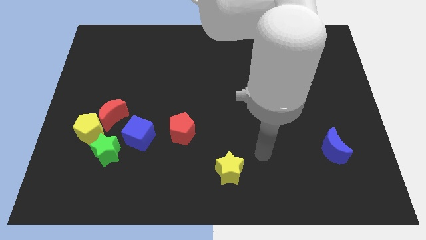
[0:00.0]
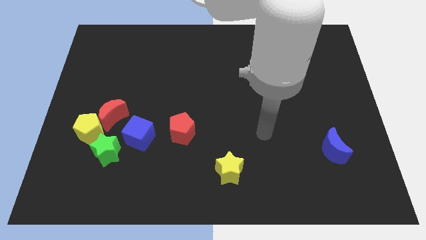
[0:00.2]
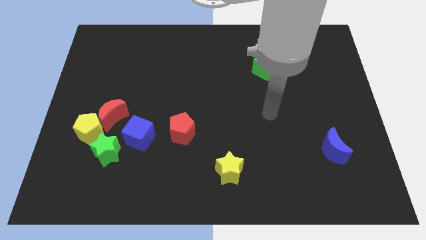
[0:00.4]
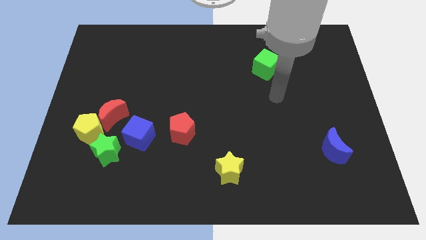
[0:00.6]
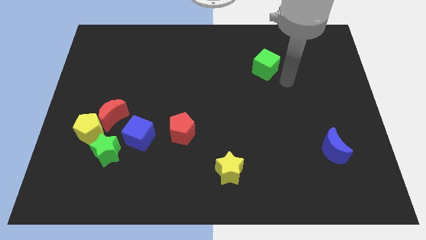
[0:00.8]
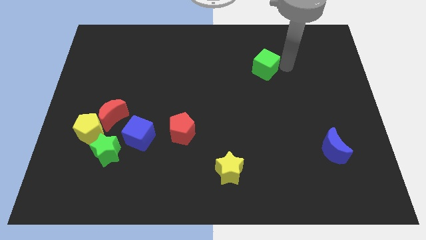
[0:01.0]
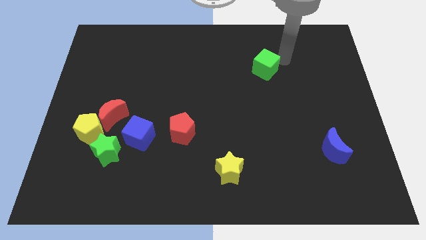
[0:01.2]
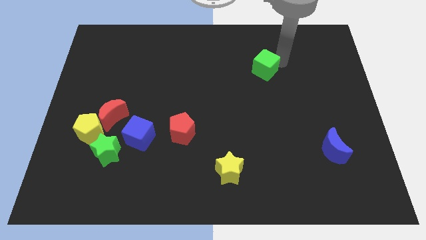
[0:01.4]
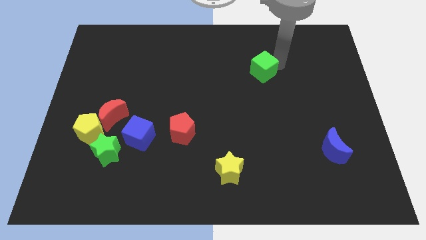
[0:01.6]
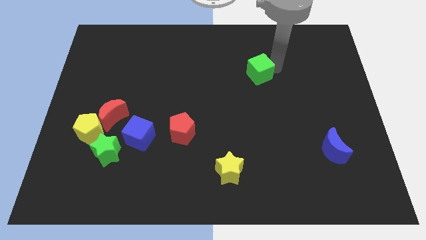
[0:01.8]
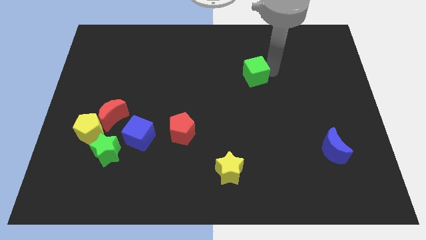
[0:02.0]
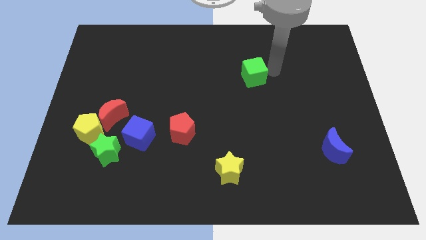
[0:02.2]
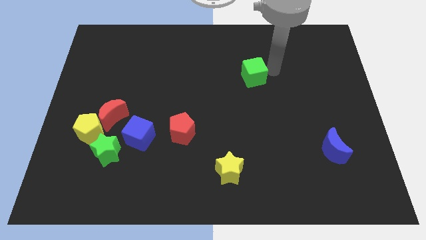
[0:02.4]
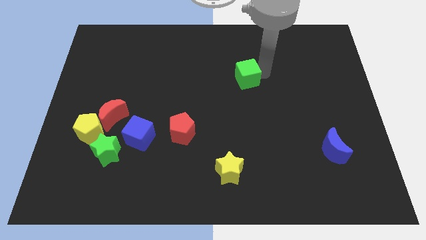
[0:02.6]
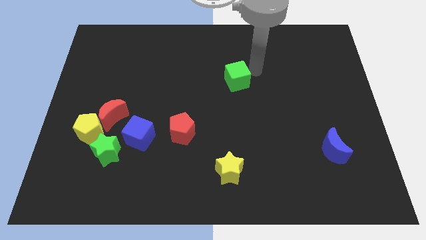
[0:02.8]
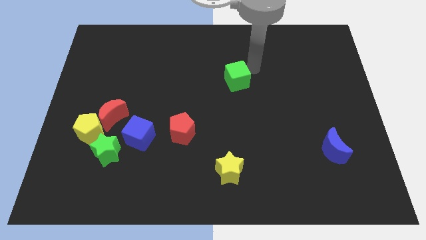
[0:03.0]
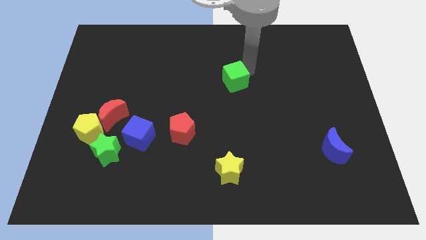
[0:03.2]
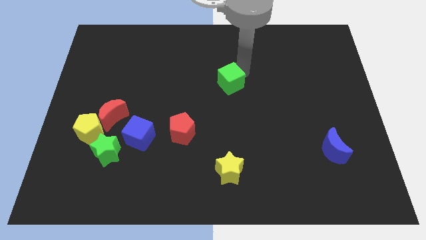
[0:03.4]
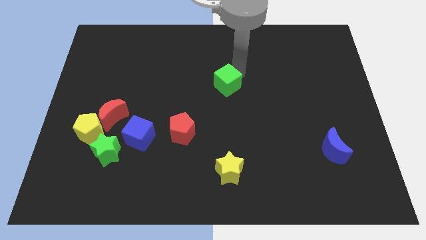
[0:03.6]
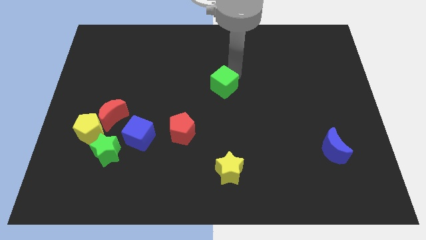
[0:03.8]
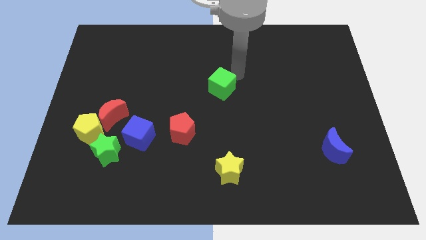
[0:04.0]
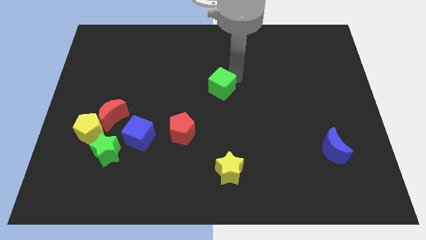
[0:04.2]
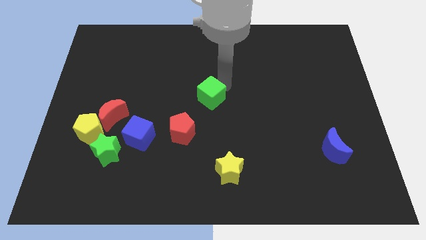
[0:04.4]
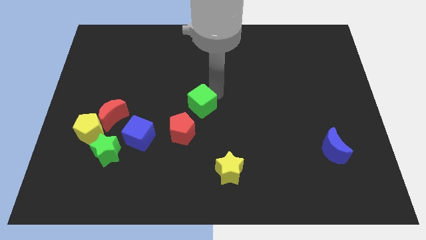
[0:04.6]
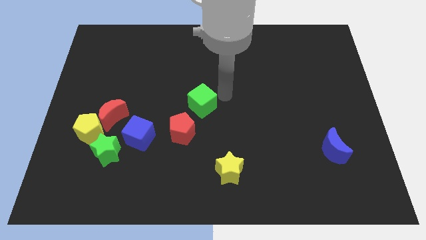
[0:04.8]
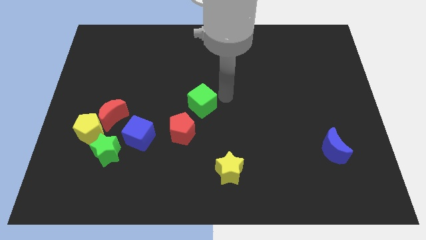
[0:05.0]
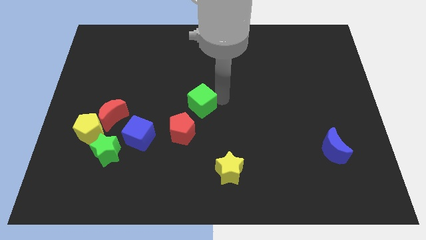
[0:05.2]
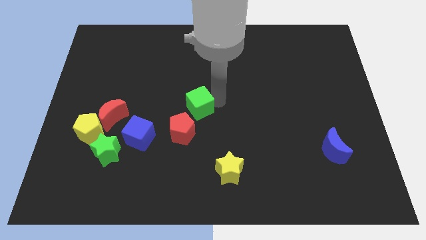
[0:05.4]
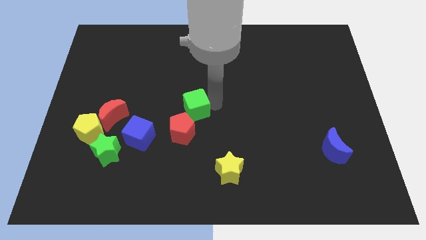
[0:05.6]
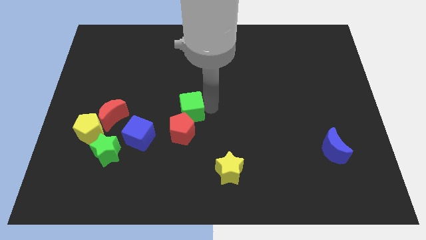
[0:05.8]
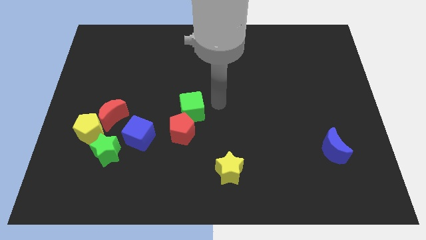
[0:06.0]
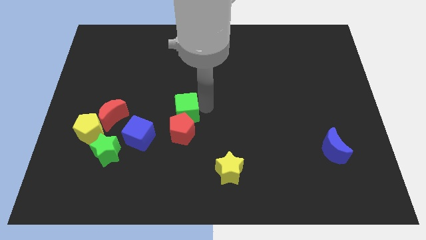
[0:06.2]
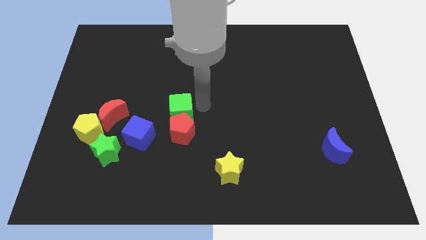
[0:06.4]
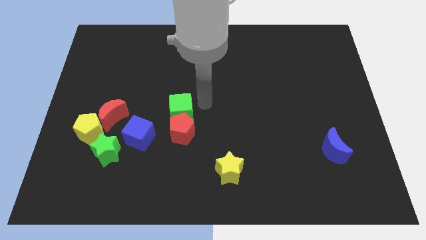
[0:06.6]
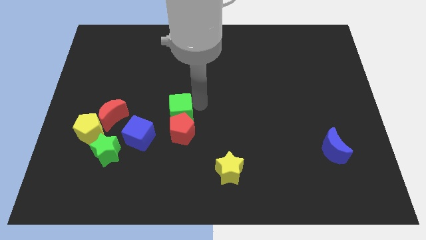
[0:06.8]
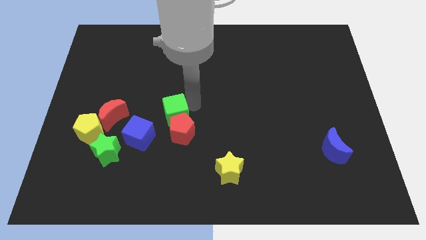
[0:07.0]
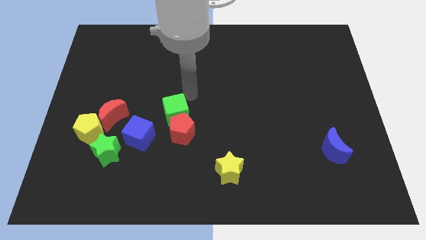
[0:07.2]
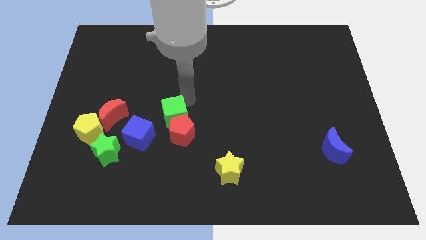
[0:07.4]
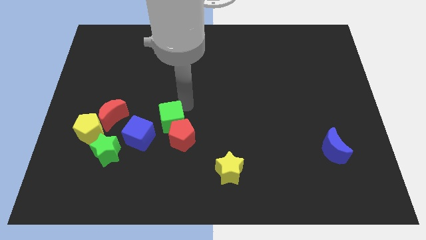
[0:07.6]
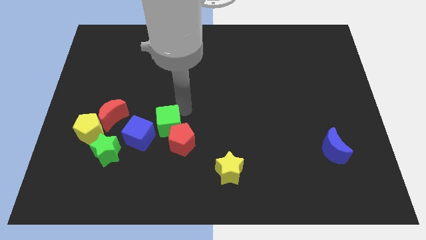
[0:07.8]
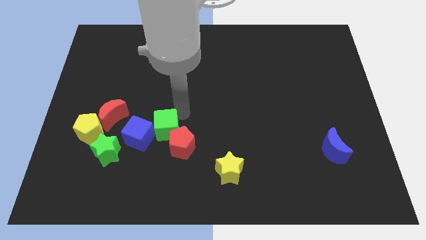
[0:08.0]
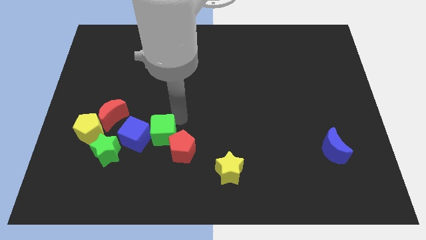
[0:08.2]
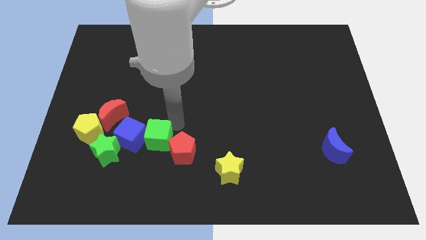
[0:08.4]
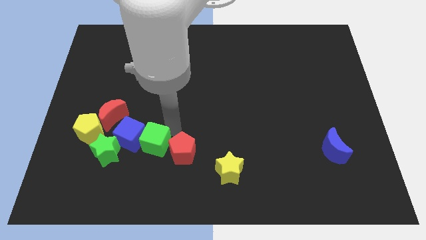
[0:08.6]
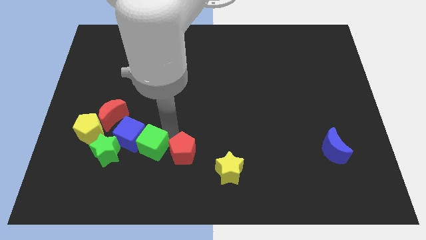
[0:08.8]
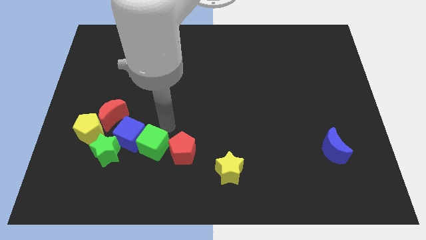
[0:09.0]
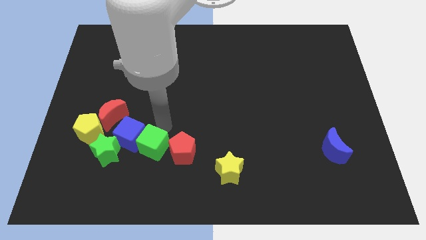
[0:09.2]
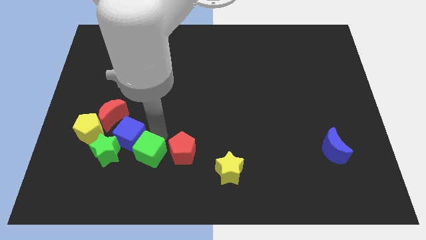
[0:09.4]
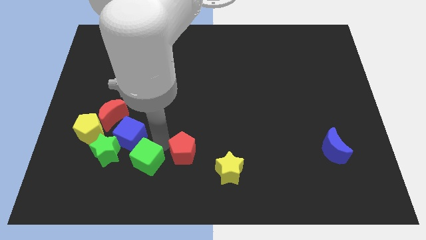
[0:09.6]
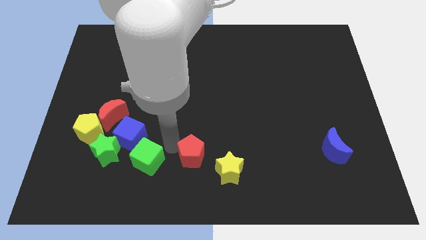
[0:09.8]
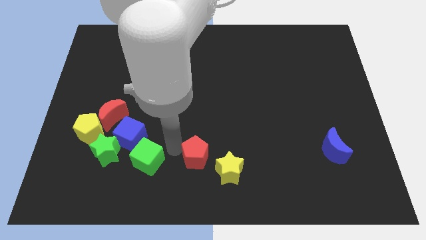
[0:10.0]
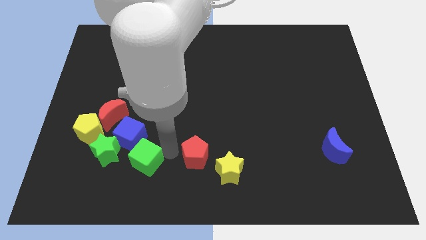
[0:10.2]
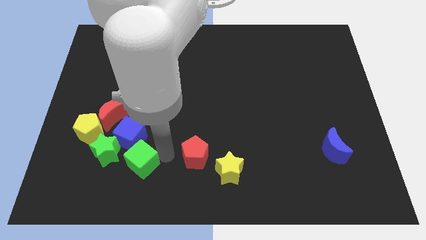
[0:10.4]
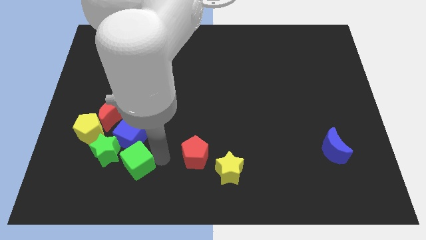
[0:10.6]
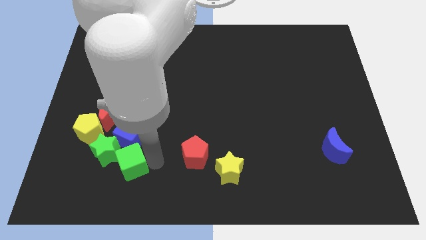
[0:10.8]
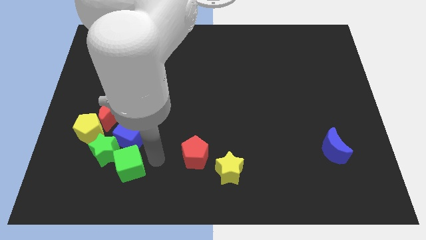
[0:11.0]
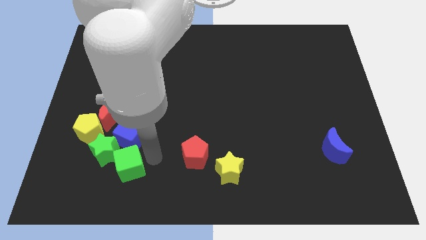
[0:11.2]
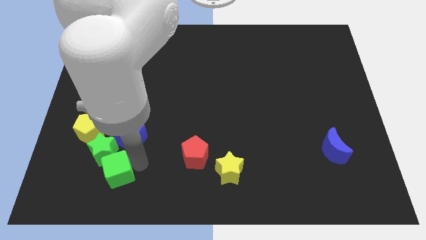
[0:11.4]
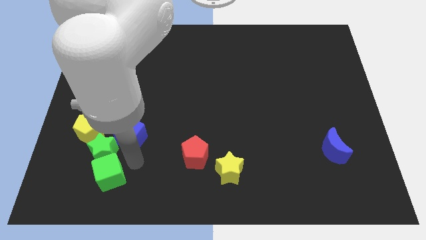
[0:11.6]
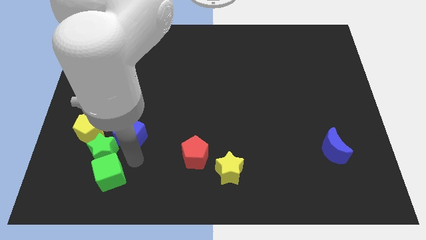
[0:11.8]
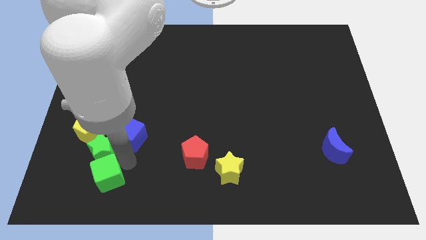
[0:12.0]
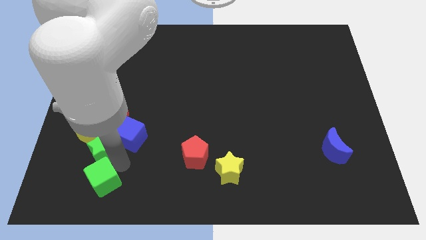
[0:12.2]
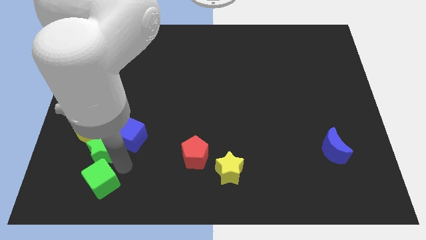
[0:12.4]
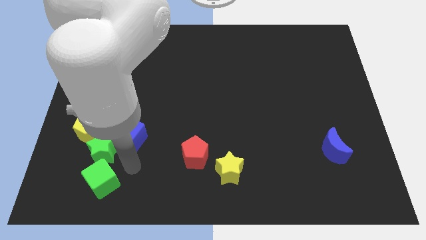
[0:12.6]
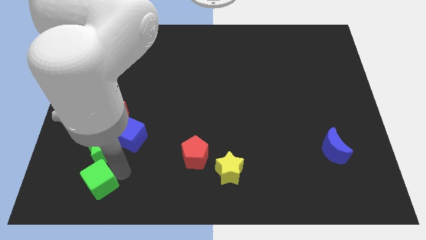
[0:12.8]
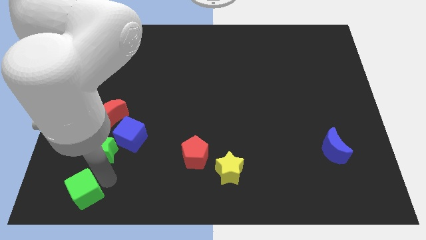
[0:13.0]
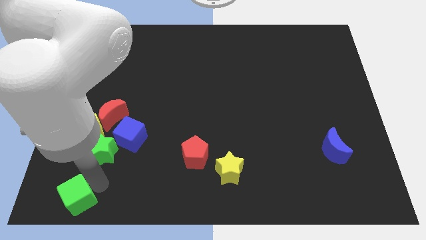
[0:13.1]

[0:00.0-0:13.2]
slide the green cube to the bottom left of the board
